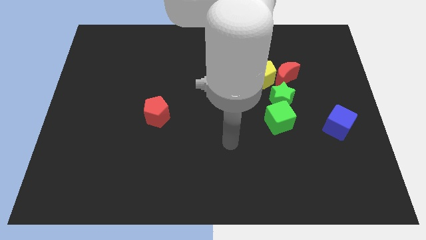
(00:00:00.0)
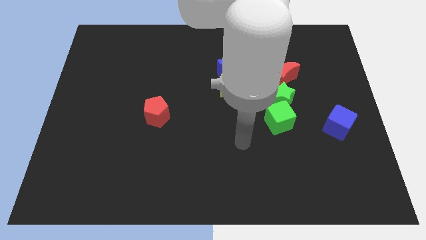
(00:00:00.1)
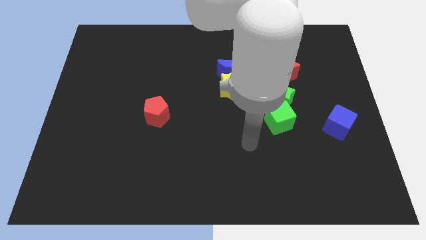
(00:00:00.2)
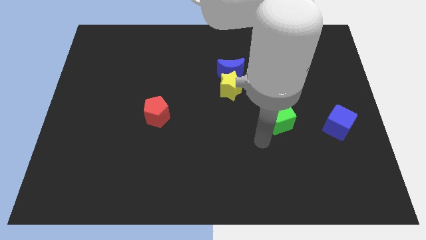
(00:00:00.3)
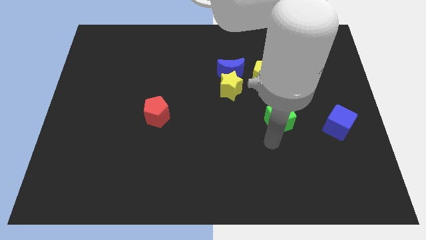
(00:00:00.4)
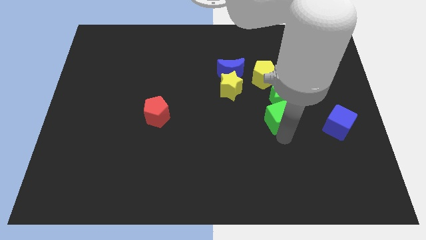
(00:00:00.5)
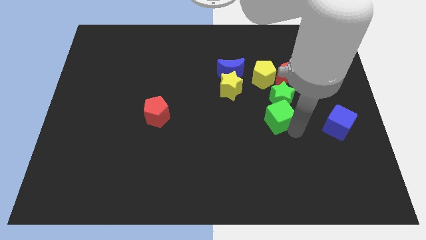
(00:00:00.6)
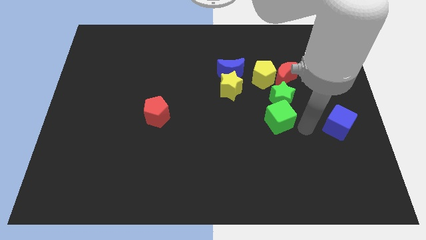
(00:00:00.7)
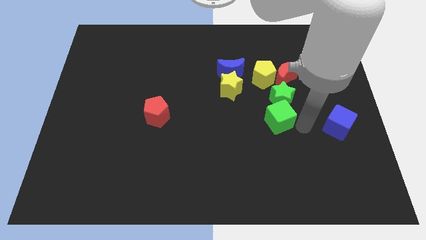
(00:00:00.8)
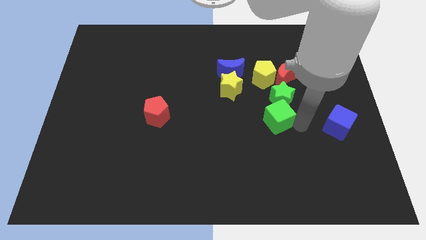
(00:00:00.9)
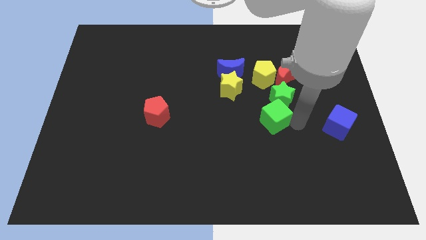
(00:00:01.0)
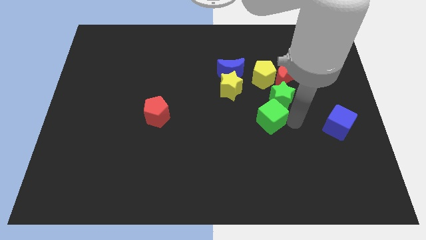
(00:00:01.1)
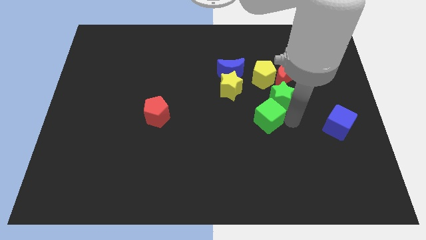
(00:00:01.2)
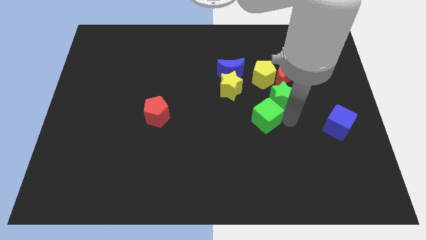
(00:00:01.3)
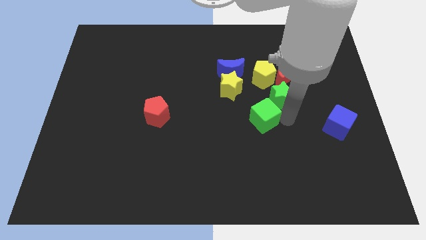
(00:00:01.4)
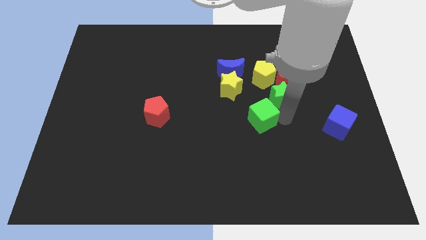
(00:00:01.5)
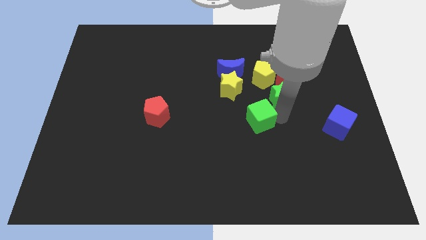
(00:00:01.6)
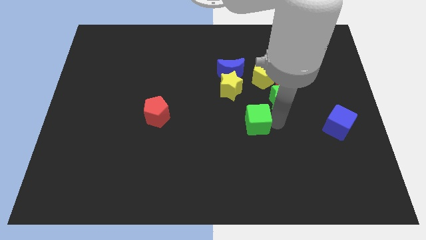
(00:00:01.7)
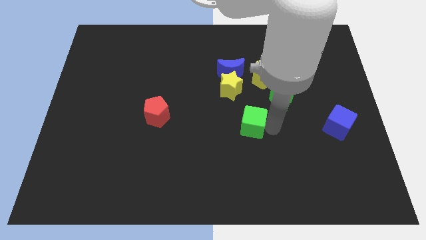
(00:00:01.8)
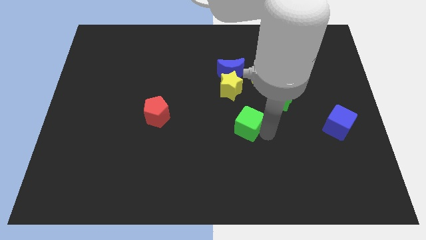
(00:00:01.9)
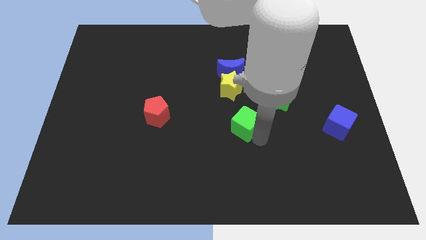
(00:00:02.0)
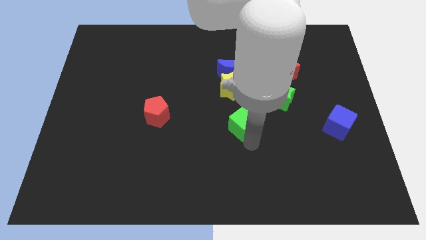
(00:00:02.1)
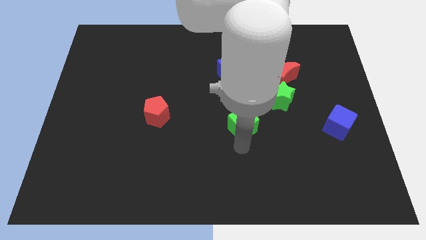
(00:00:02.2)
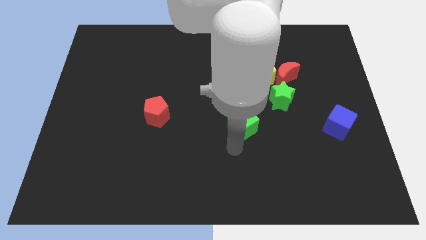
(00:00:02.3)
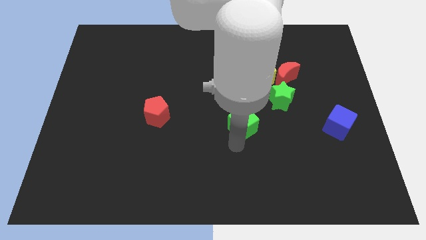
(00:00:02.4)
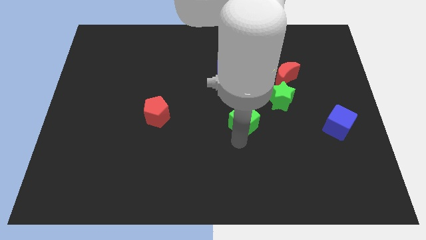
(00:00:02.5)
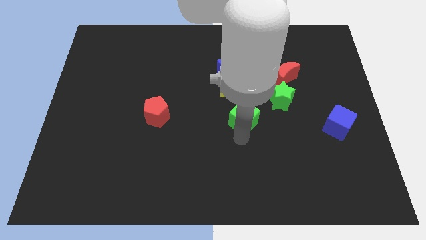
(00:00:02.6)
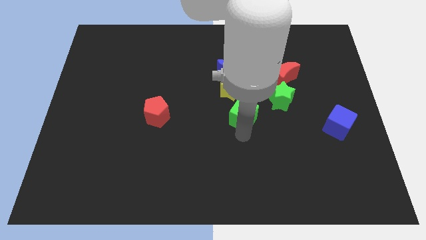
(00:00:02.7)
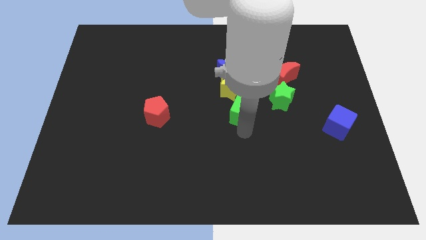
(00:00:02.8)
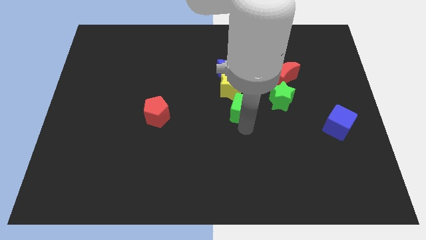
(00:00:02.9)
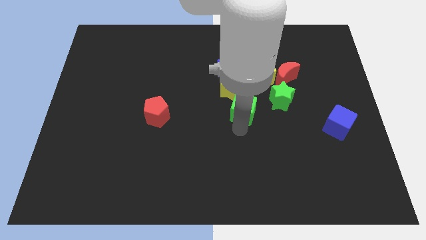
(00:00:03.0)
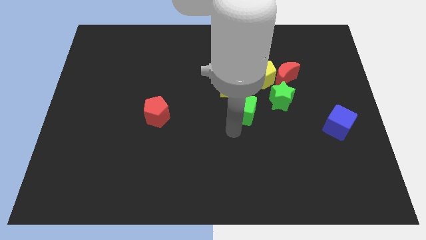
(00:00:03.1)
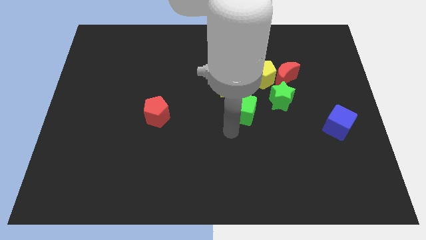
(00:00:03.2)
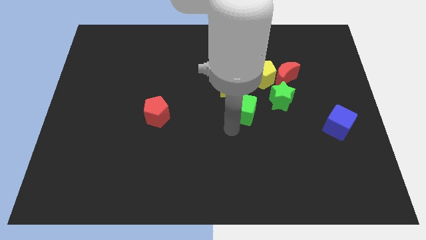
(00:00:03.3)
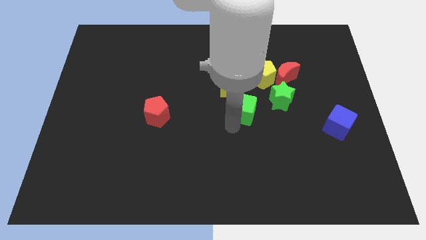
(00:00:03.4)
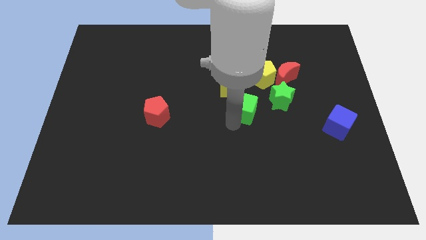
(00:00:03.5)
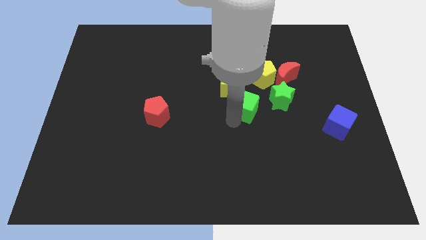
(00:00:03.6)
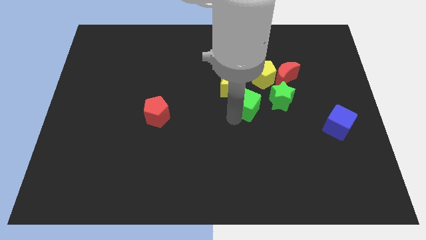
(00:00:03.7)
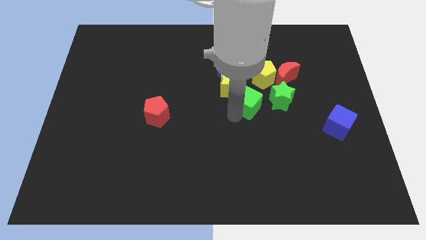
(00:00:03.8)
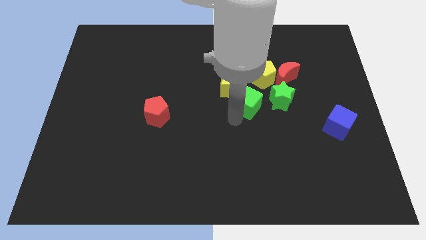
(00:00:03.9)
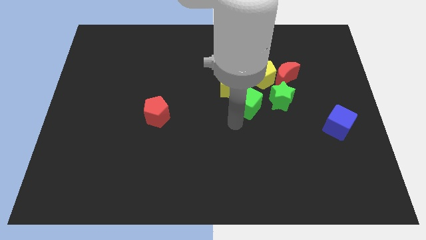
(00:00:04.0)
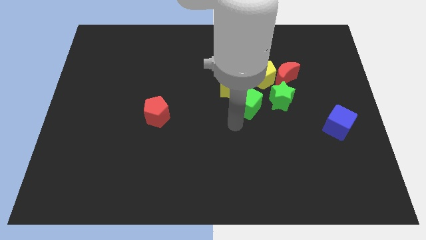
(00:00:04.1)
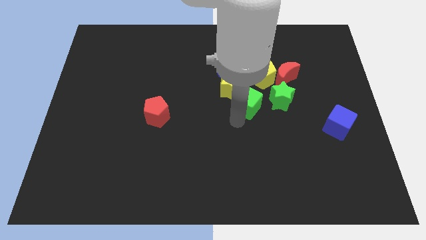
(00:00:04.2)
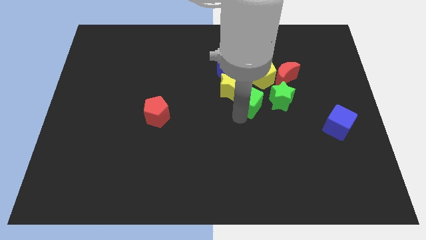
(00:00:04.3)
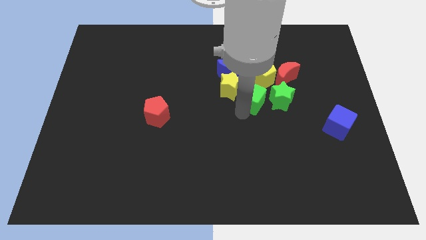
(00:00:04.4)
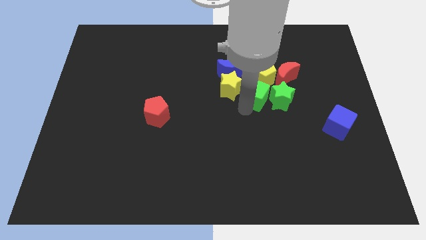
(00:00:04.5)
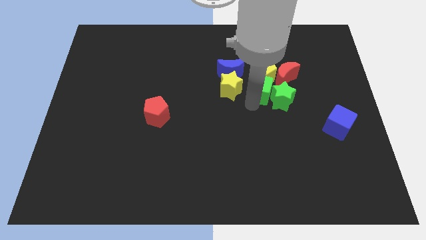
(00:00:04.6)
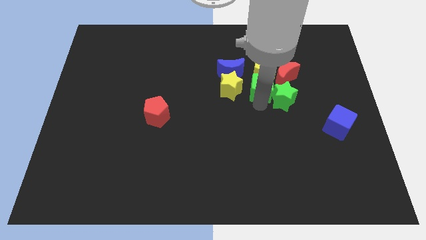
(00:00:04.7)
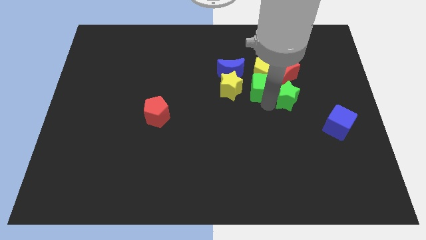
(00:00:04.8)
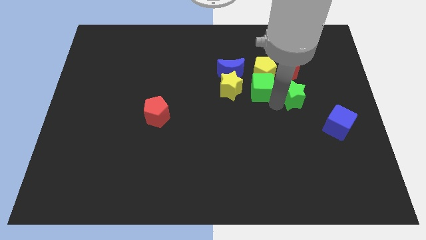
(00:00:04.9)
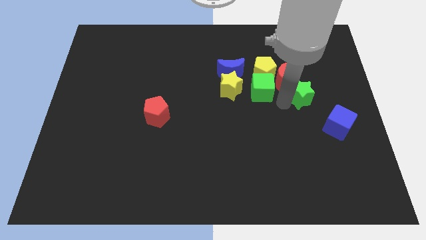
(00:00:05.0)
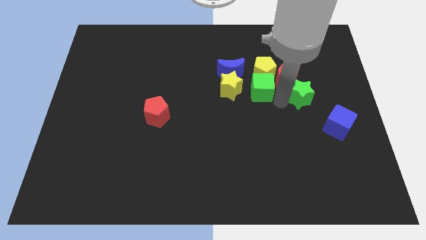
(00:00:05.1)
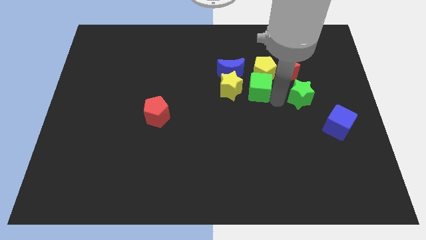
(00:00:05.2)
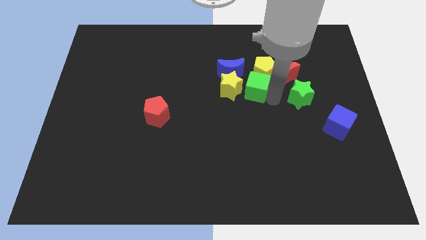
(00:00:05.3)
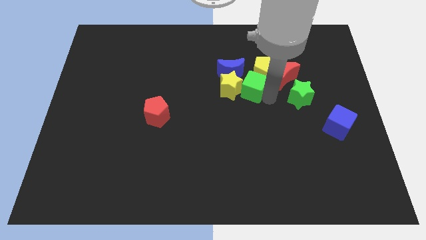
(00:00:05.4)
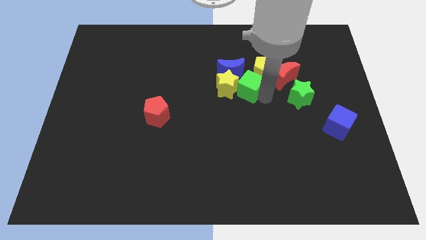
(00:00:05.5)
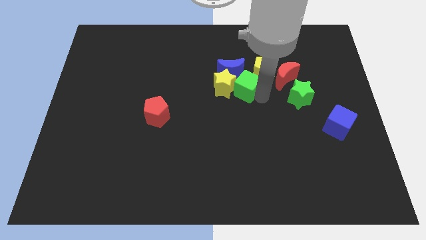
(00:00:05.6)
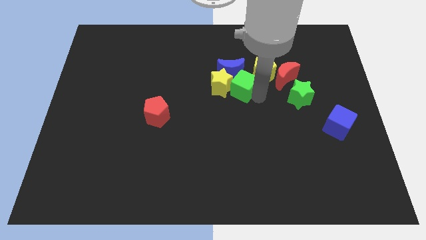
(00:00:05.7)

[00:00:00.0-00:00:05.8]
slide the green cube to the blue moon

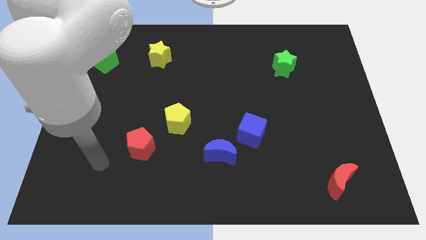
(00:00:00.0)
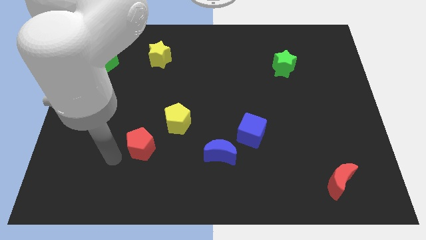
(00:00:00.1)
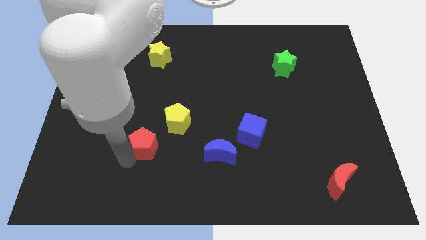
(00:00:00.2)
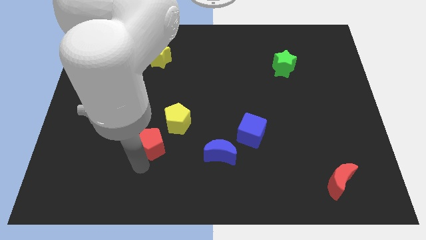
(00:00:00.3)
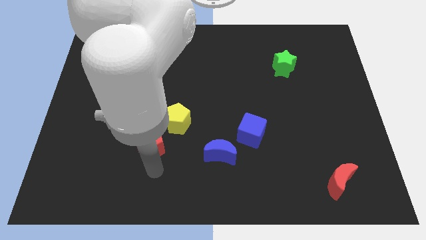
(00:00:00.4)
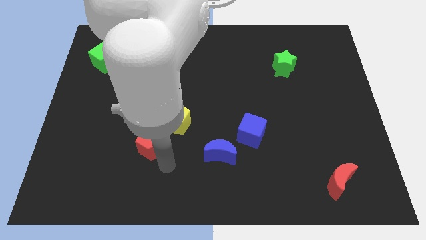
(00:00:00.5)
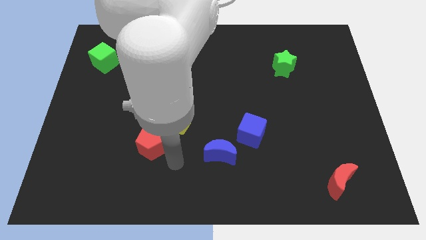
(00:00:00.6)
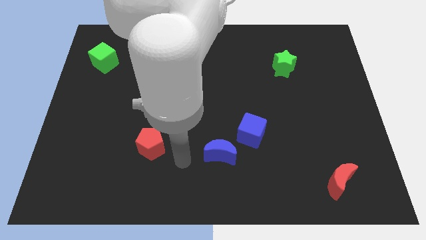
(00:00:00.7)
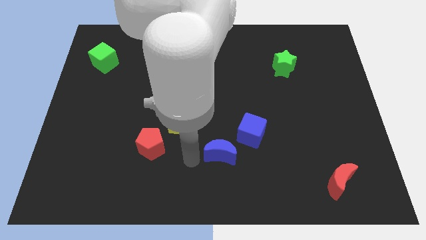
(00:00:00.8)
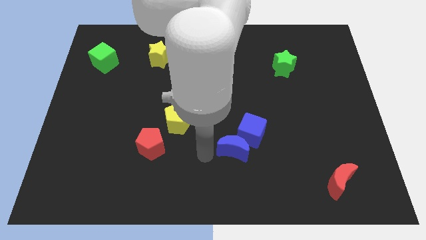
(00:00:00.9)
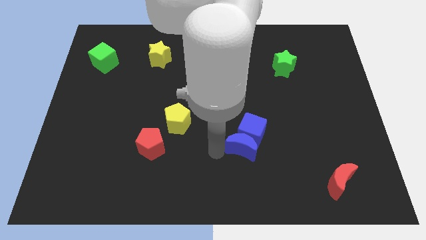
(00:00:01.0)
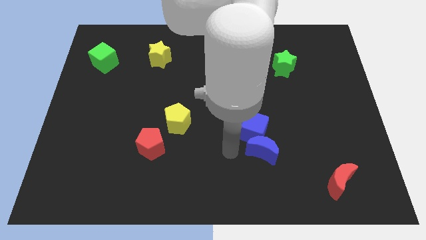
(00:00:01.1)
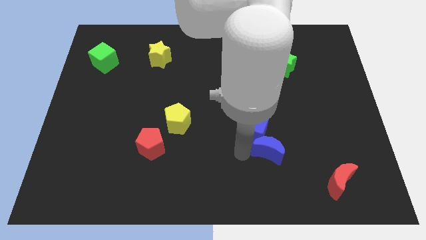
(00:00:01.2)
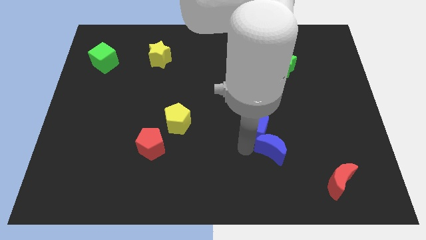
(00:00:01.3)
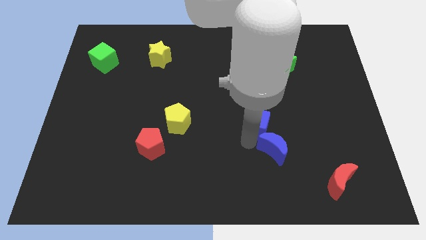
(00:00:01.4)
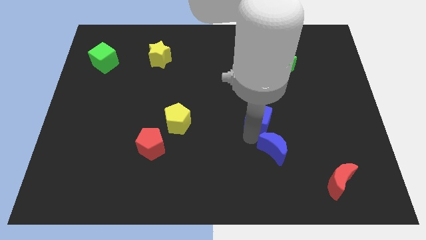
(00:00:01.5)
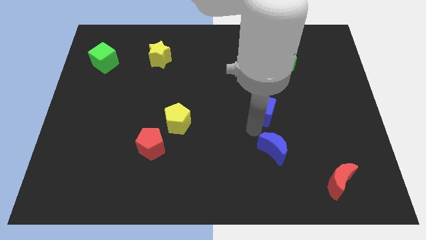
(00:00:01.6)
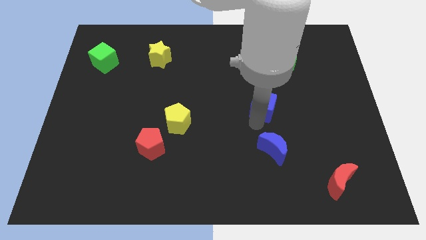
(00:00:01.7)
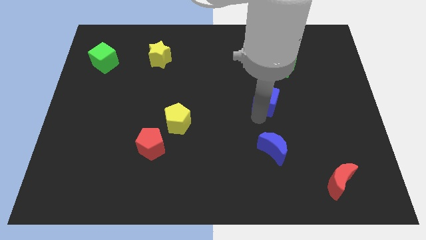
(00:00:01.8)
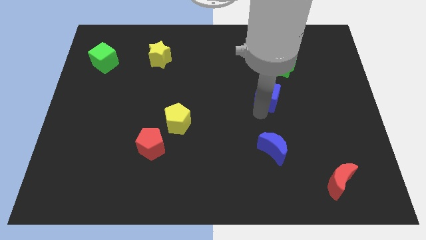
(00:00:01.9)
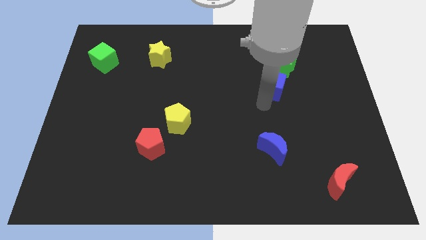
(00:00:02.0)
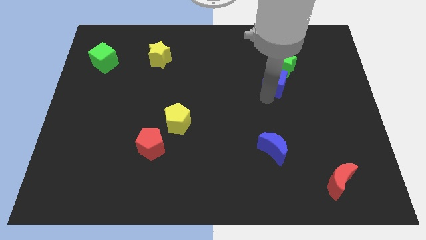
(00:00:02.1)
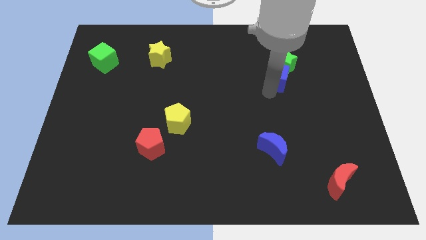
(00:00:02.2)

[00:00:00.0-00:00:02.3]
push the blue cube towards the green star

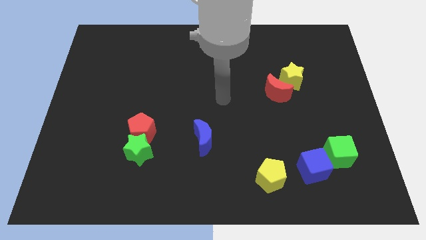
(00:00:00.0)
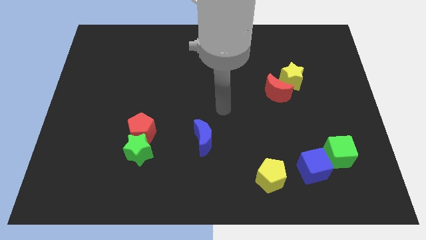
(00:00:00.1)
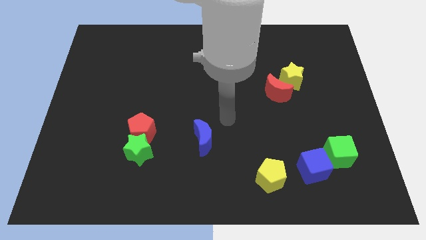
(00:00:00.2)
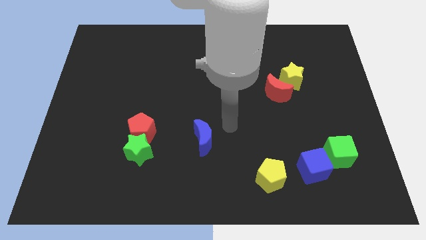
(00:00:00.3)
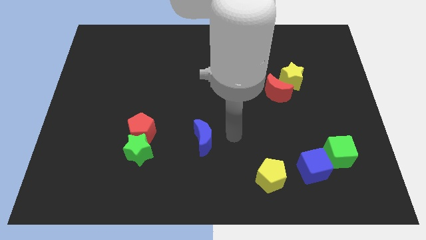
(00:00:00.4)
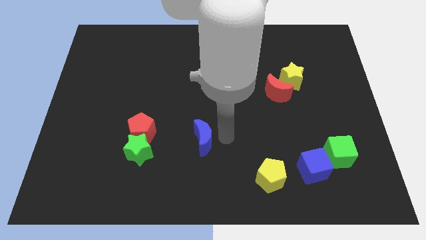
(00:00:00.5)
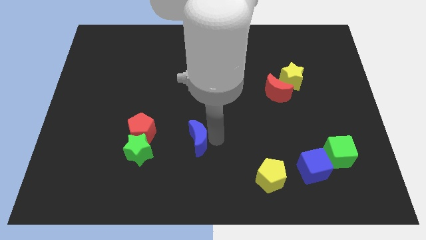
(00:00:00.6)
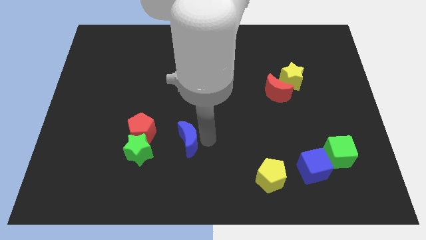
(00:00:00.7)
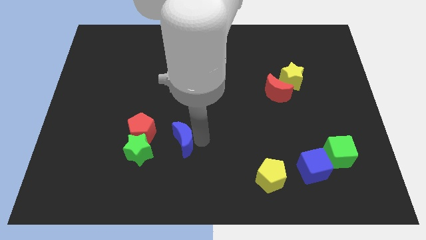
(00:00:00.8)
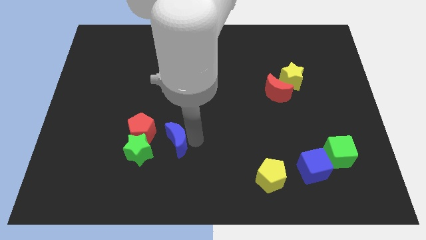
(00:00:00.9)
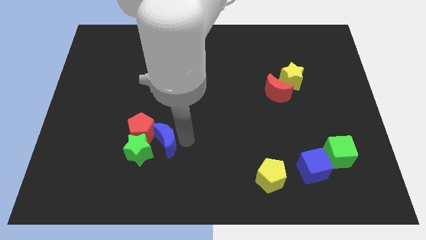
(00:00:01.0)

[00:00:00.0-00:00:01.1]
push the blue moon towards the green star
